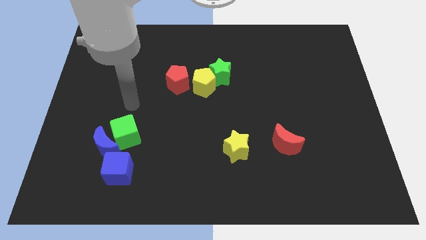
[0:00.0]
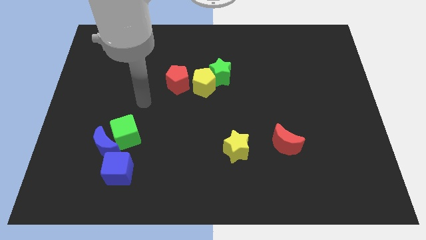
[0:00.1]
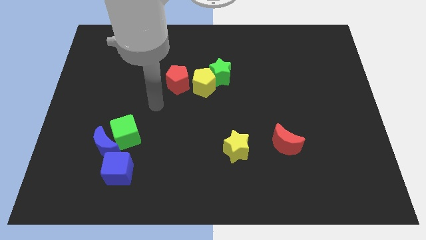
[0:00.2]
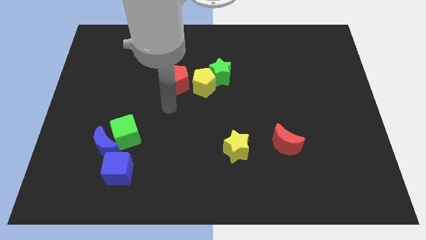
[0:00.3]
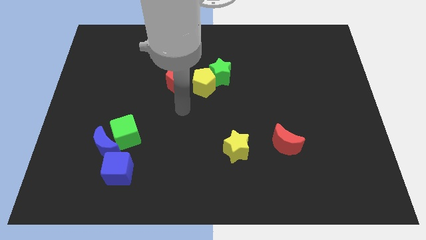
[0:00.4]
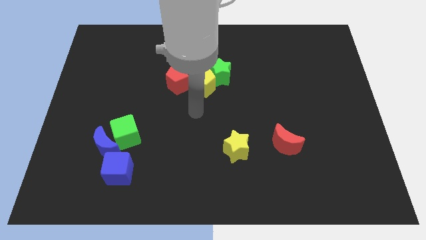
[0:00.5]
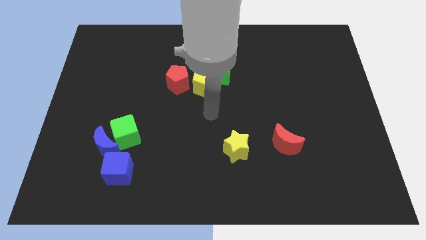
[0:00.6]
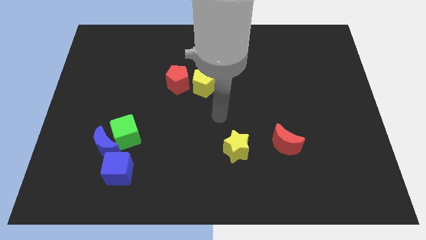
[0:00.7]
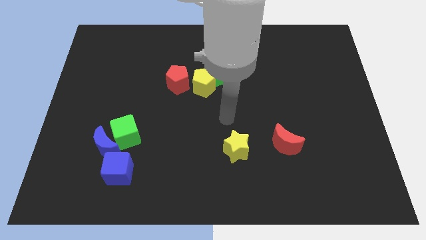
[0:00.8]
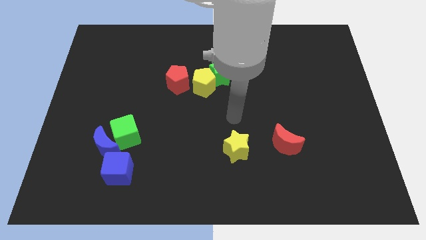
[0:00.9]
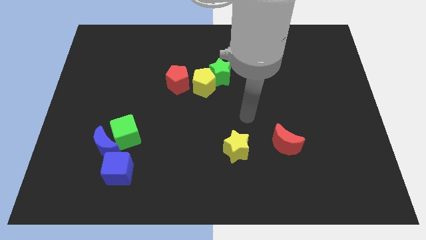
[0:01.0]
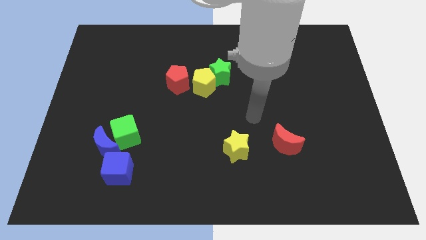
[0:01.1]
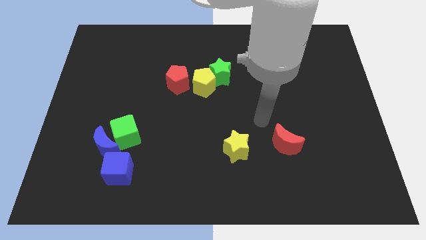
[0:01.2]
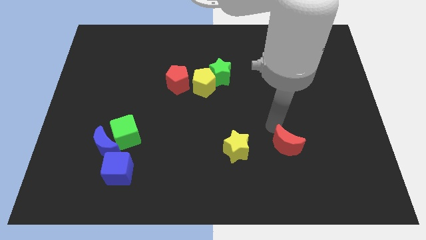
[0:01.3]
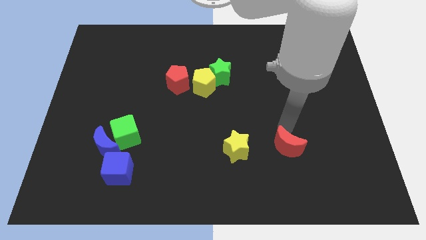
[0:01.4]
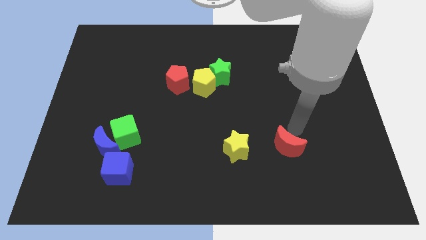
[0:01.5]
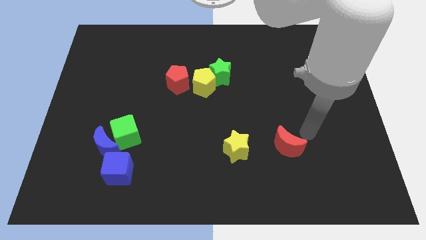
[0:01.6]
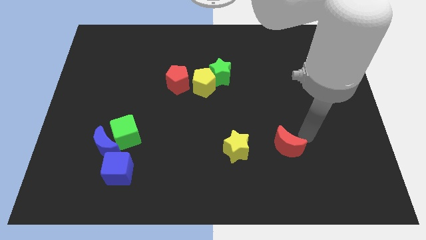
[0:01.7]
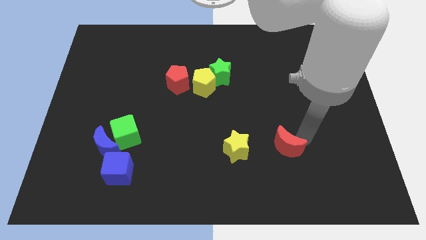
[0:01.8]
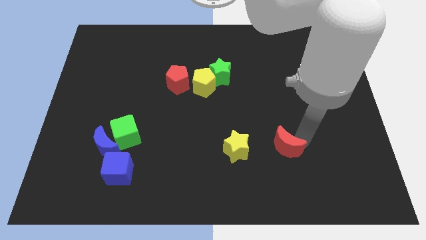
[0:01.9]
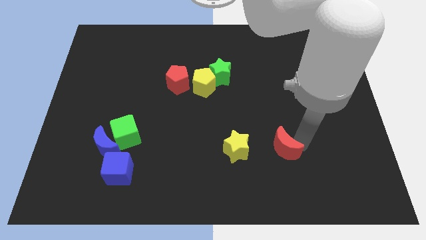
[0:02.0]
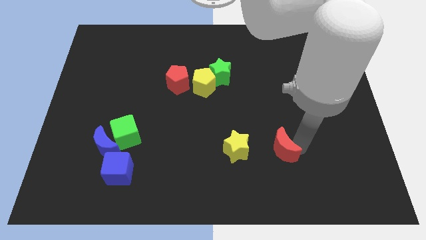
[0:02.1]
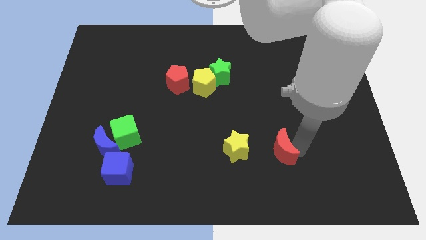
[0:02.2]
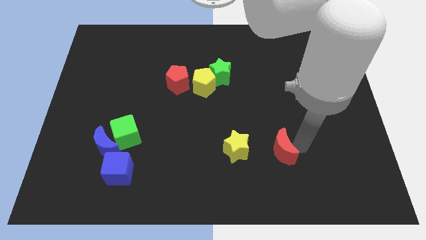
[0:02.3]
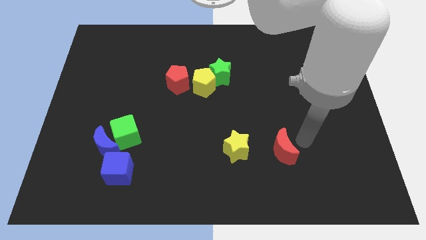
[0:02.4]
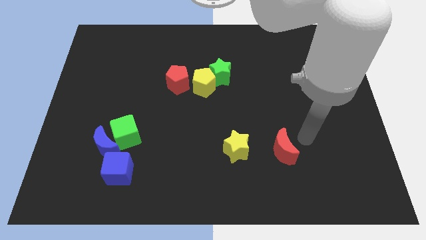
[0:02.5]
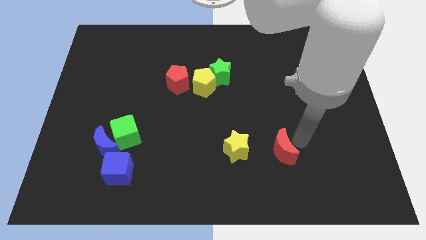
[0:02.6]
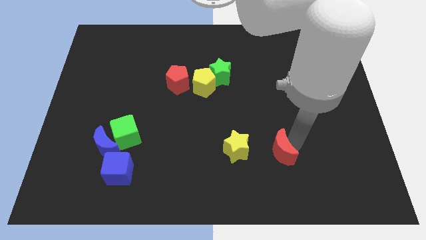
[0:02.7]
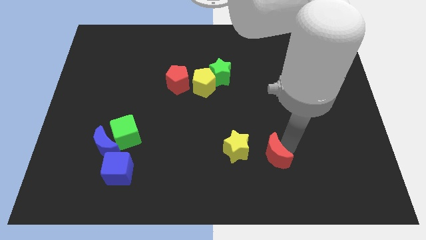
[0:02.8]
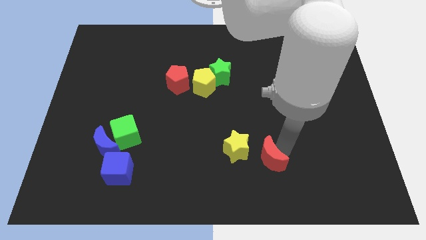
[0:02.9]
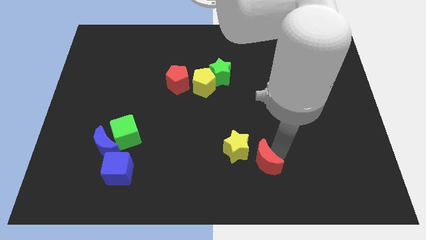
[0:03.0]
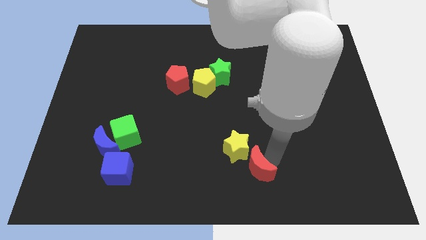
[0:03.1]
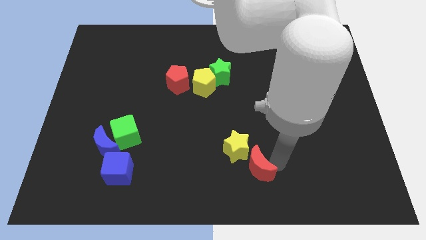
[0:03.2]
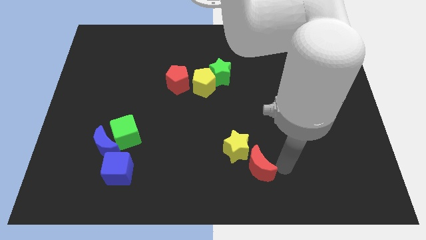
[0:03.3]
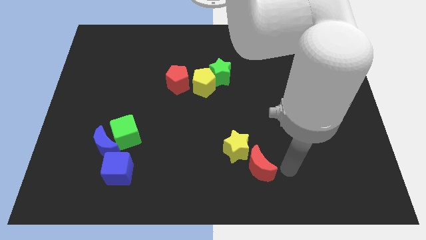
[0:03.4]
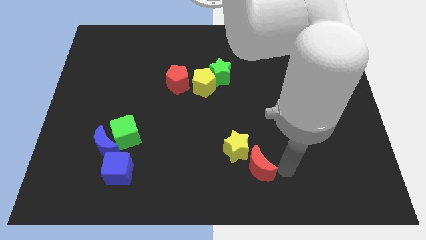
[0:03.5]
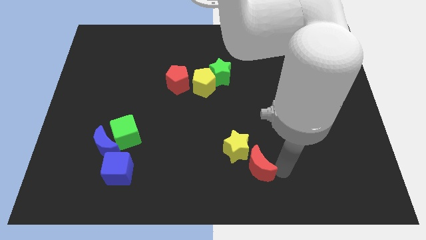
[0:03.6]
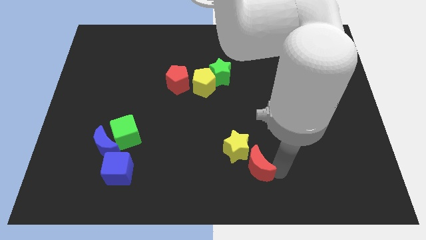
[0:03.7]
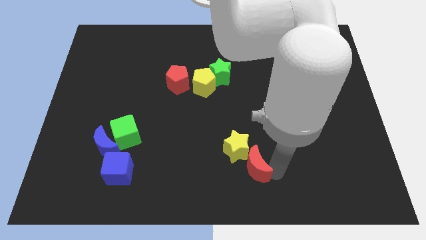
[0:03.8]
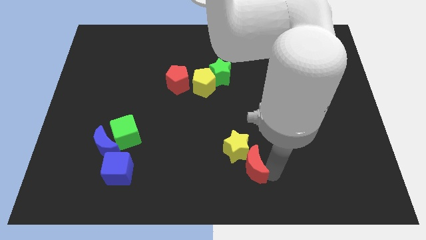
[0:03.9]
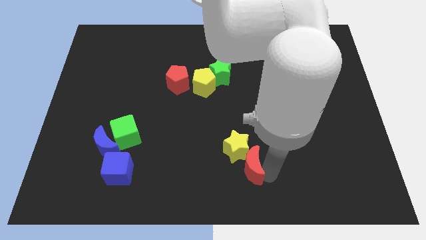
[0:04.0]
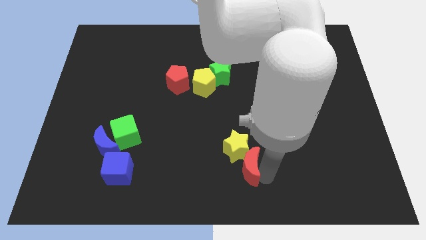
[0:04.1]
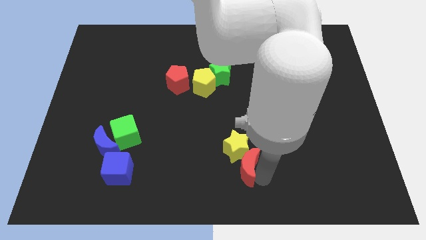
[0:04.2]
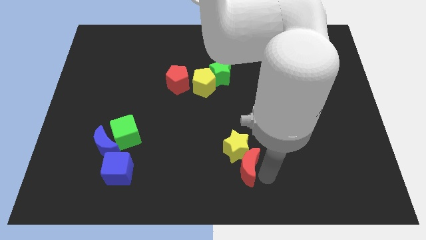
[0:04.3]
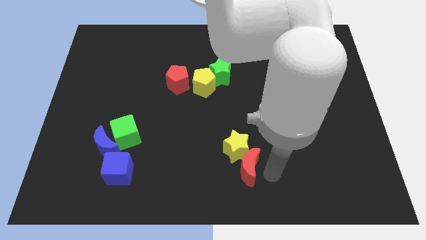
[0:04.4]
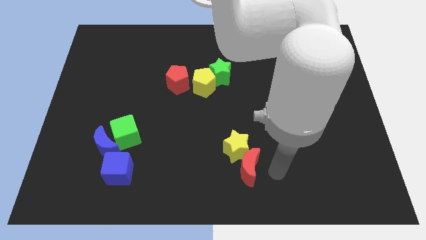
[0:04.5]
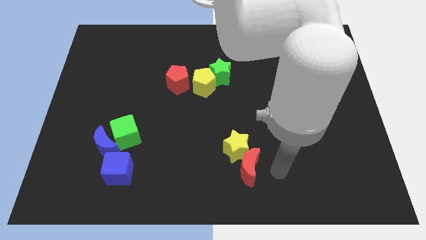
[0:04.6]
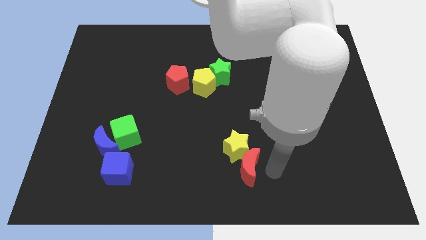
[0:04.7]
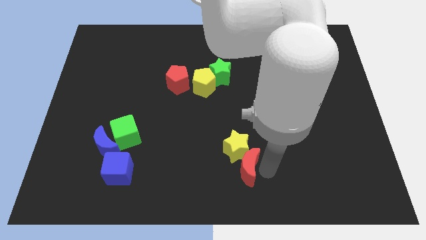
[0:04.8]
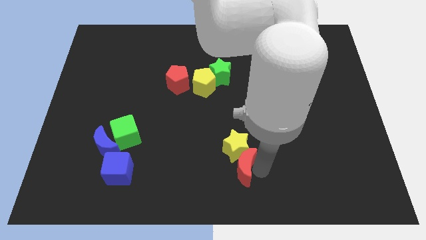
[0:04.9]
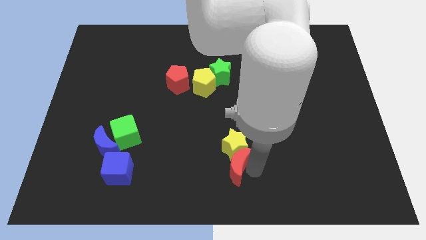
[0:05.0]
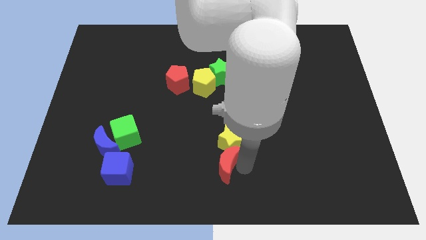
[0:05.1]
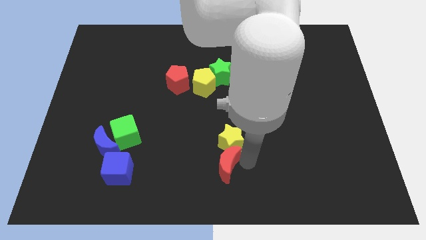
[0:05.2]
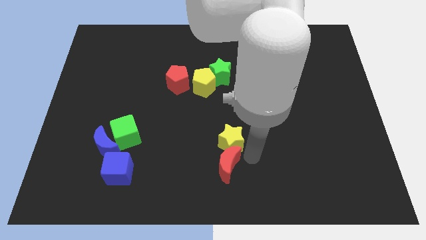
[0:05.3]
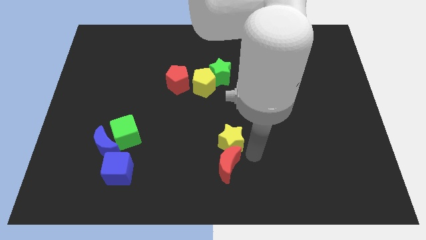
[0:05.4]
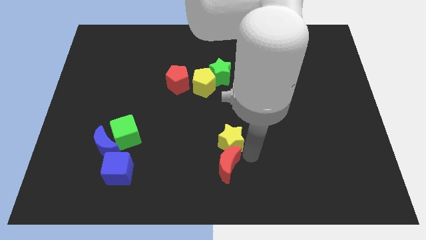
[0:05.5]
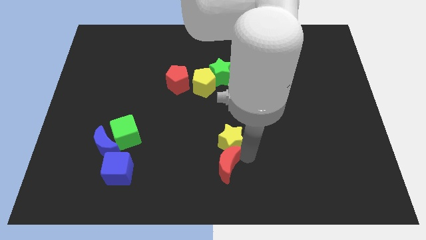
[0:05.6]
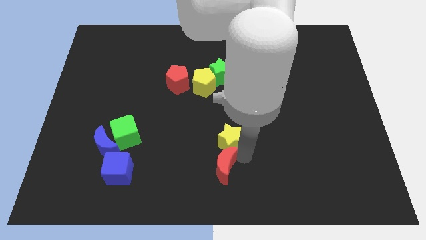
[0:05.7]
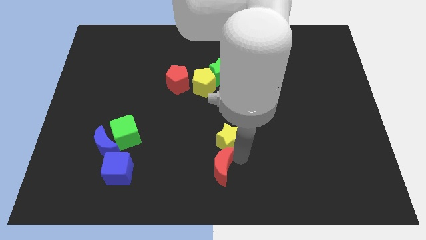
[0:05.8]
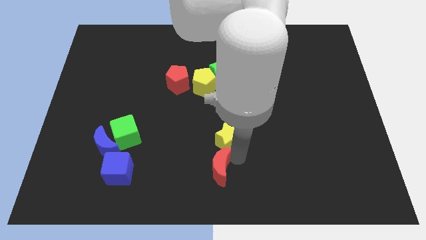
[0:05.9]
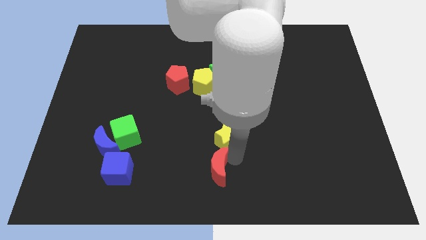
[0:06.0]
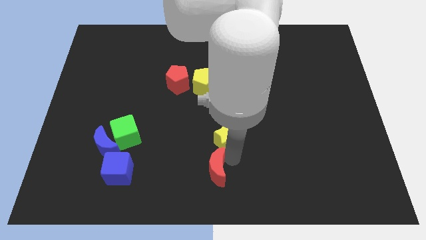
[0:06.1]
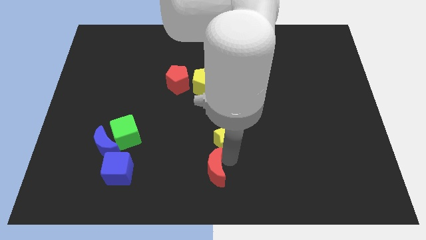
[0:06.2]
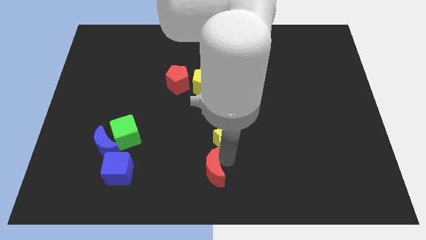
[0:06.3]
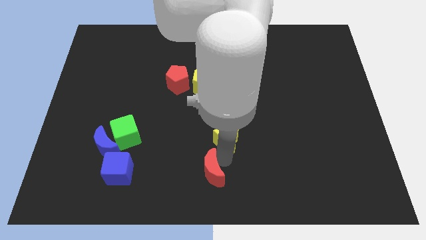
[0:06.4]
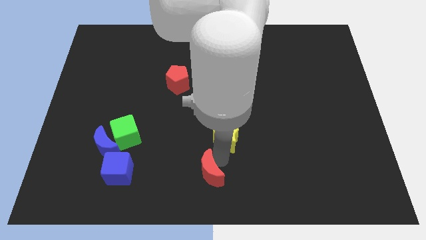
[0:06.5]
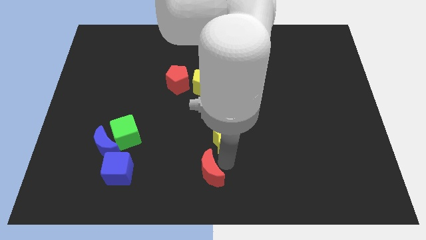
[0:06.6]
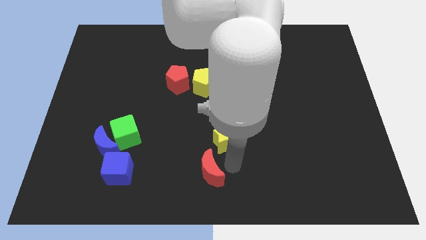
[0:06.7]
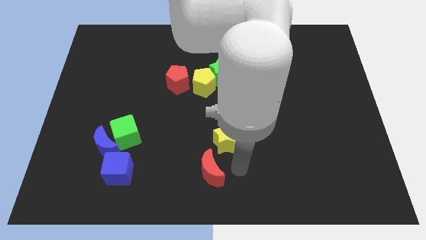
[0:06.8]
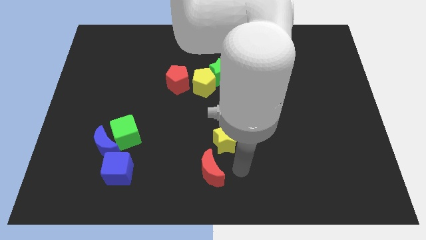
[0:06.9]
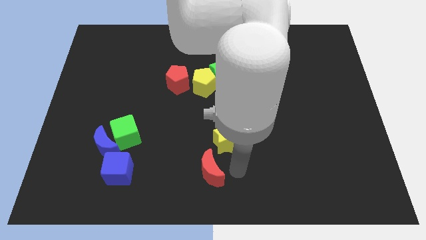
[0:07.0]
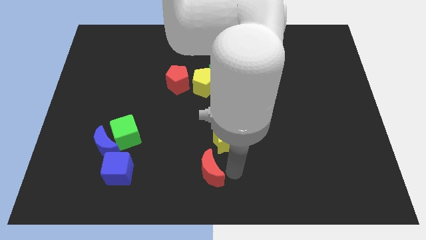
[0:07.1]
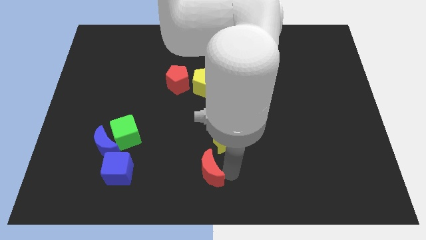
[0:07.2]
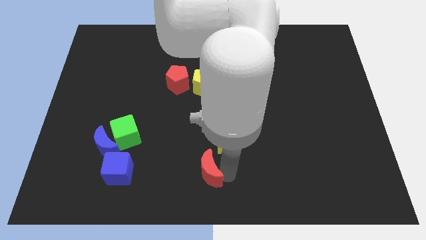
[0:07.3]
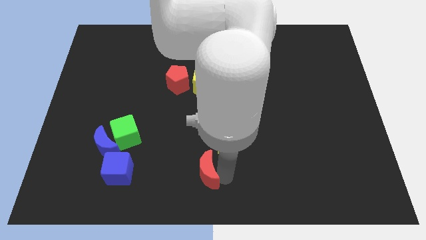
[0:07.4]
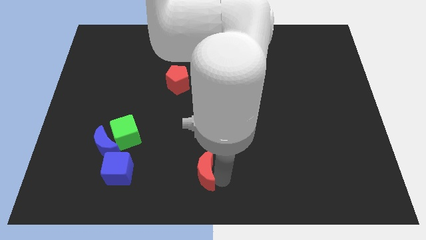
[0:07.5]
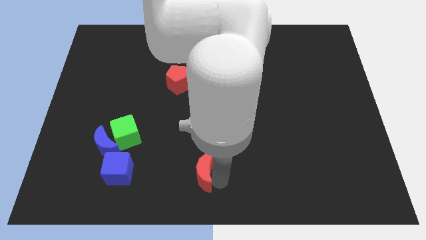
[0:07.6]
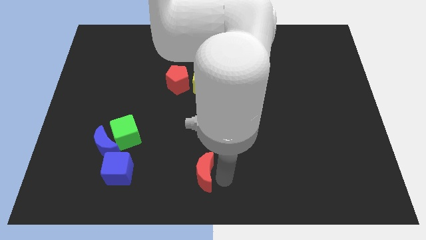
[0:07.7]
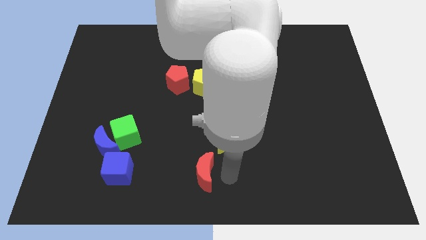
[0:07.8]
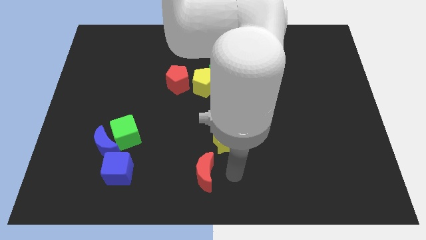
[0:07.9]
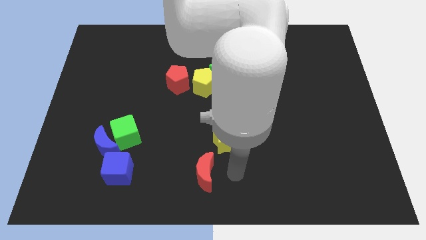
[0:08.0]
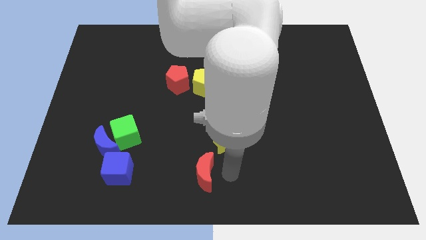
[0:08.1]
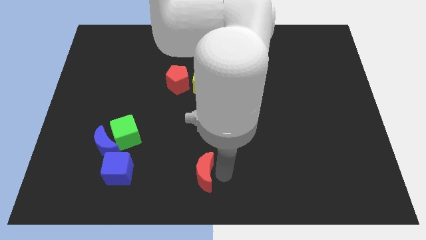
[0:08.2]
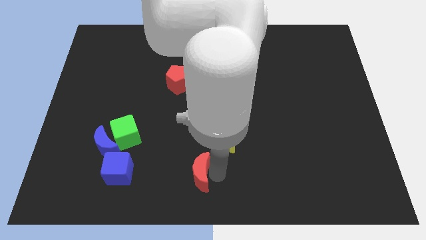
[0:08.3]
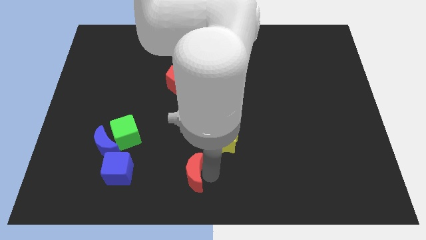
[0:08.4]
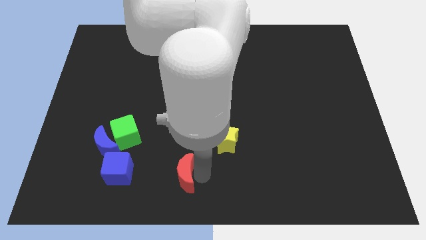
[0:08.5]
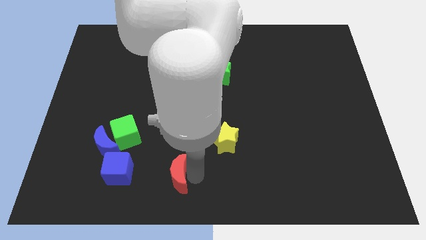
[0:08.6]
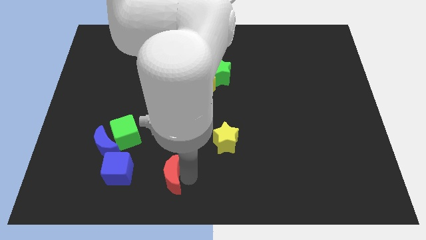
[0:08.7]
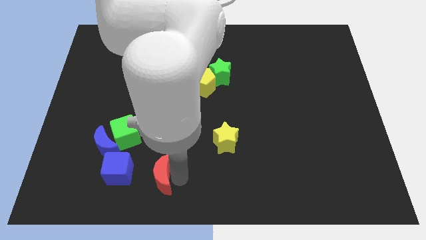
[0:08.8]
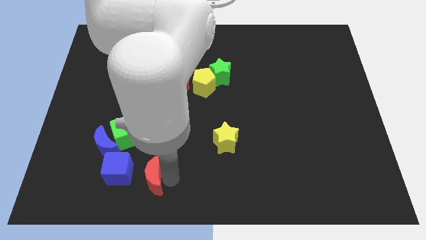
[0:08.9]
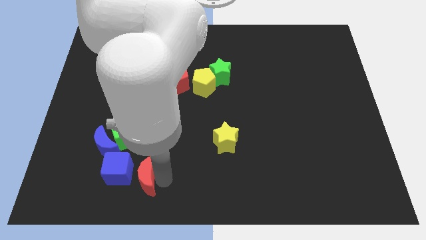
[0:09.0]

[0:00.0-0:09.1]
push the red moon towards the blue cube
